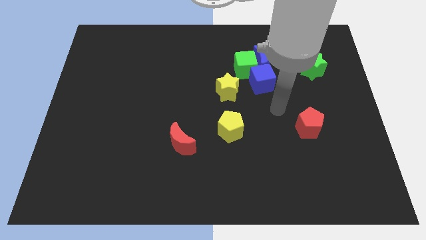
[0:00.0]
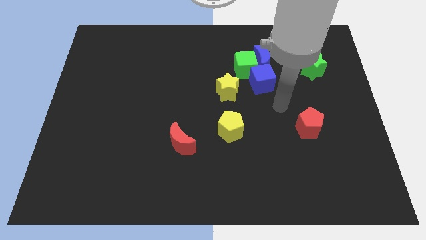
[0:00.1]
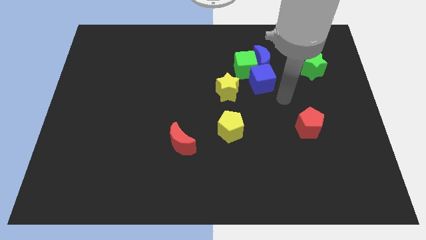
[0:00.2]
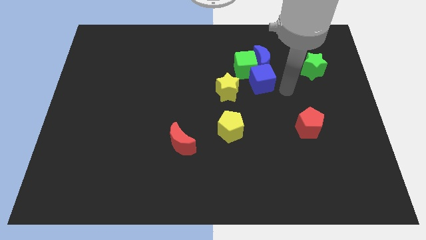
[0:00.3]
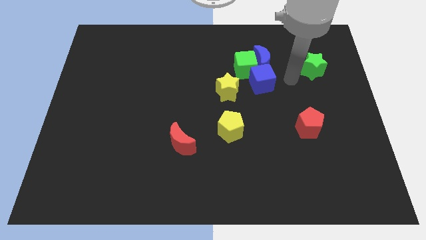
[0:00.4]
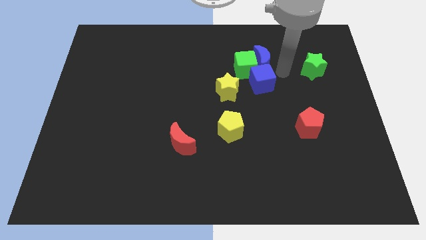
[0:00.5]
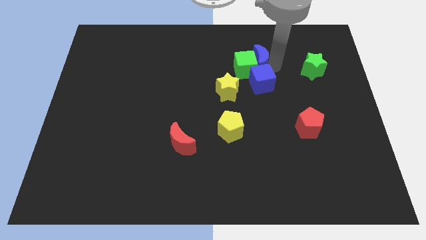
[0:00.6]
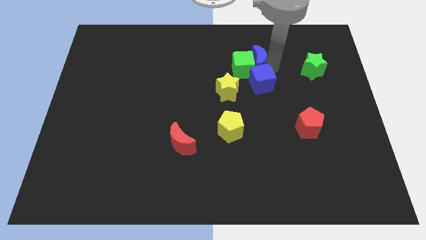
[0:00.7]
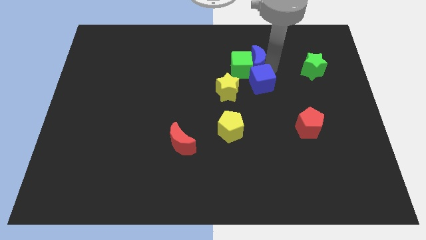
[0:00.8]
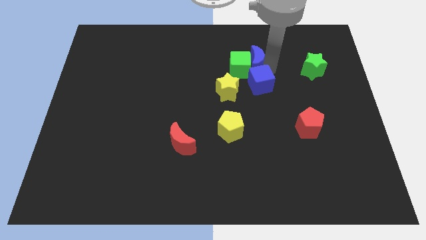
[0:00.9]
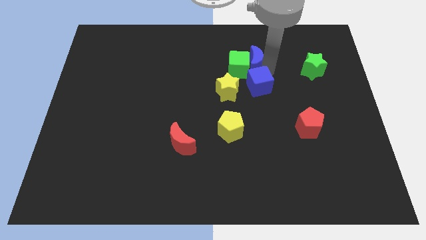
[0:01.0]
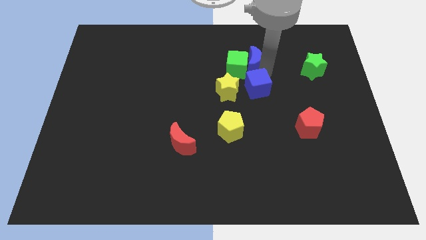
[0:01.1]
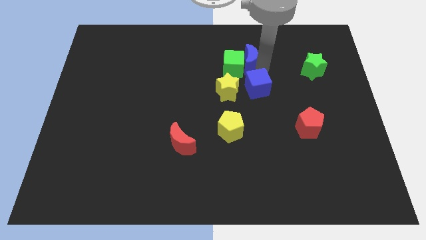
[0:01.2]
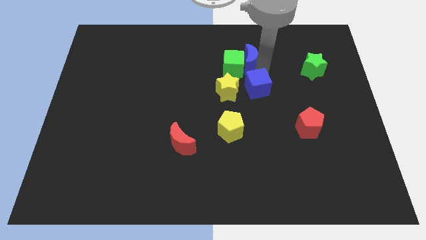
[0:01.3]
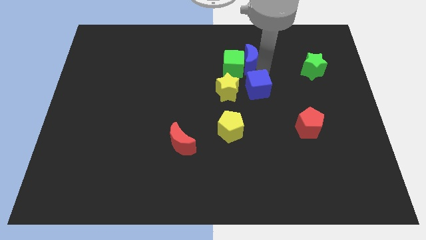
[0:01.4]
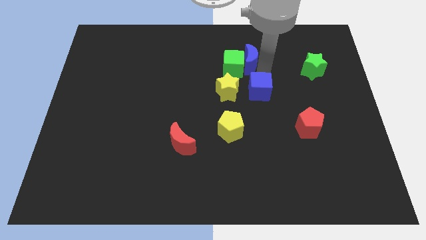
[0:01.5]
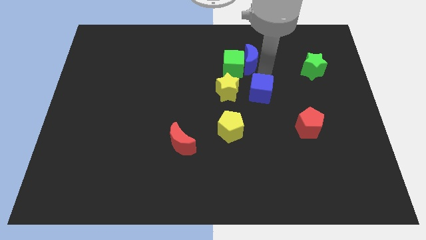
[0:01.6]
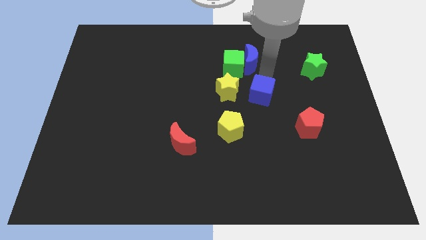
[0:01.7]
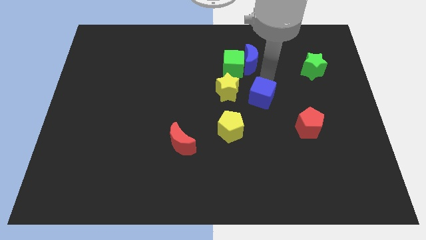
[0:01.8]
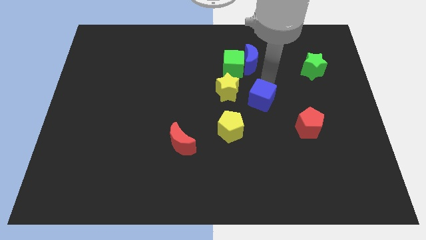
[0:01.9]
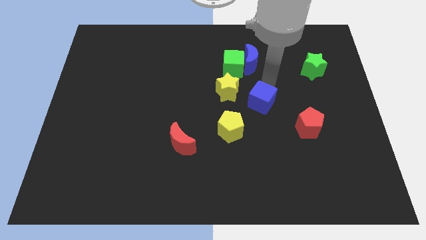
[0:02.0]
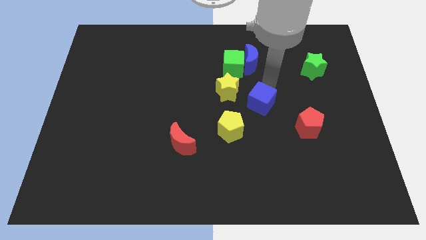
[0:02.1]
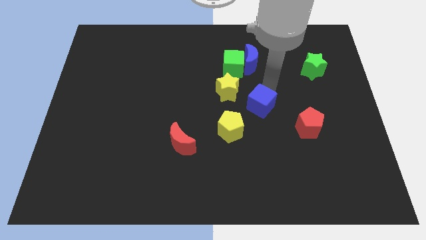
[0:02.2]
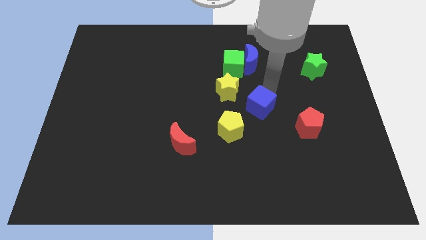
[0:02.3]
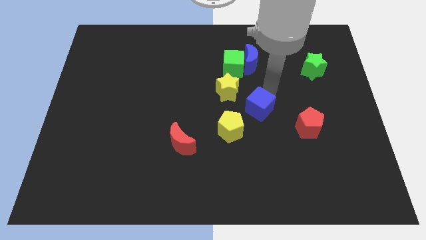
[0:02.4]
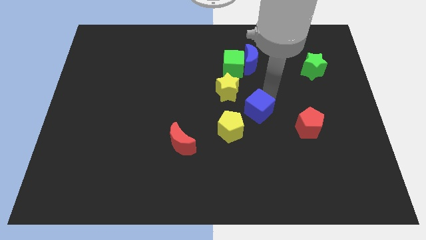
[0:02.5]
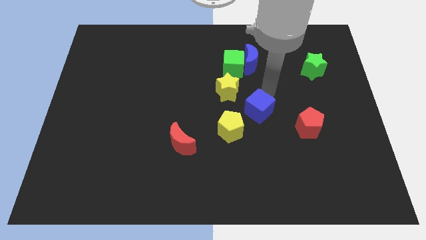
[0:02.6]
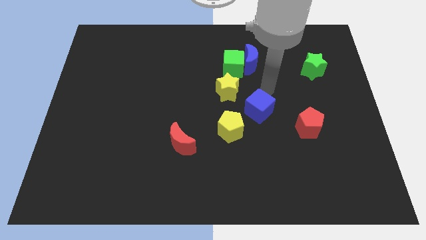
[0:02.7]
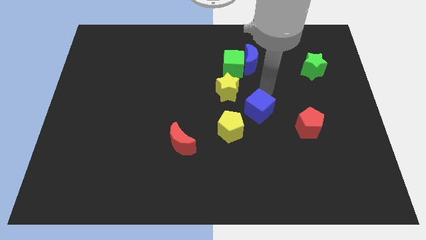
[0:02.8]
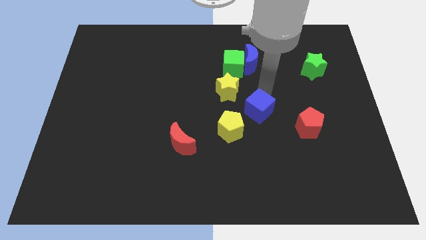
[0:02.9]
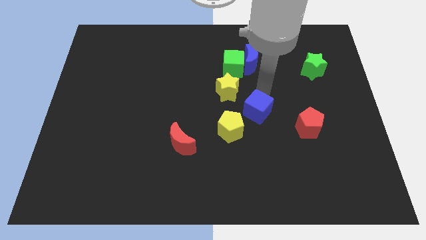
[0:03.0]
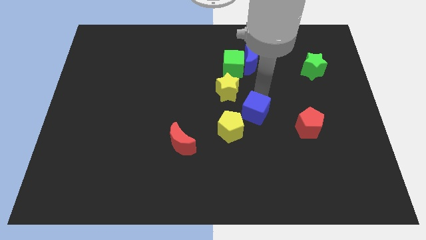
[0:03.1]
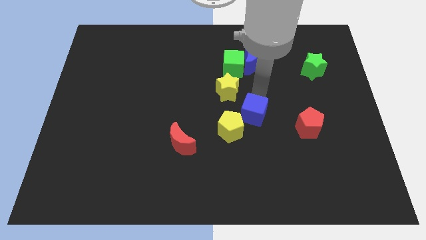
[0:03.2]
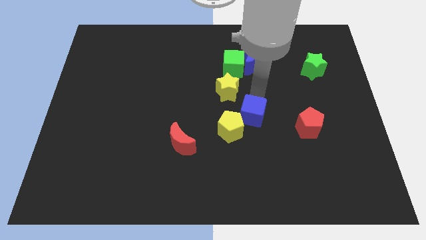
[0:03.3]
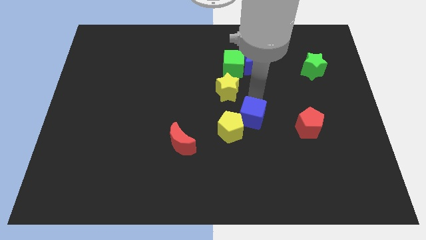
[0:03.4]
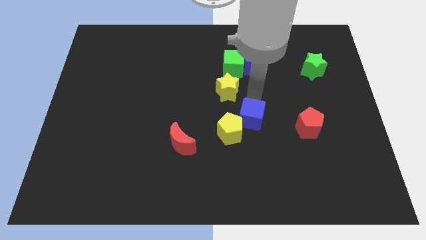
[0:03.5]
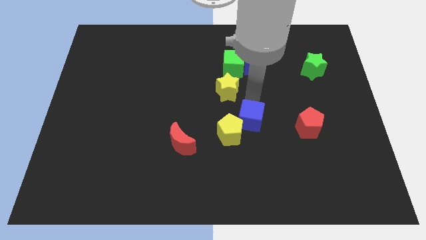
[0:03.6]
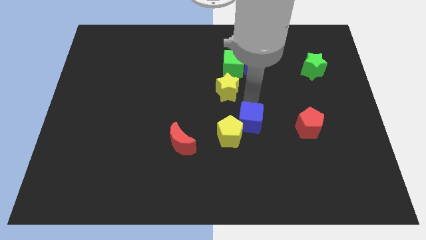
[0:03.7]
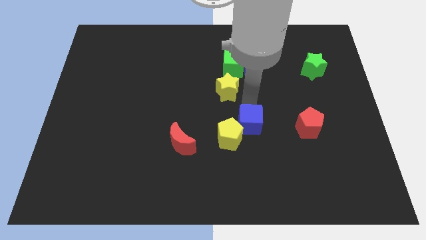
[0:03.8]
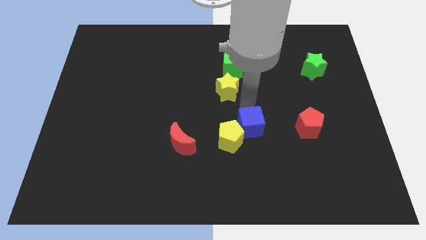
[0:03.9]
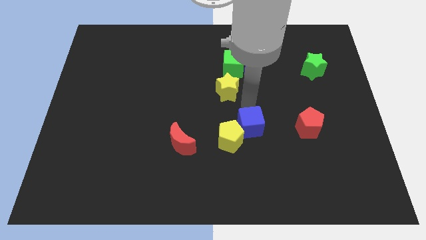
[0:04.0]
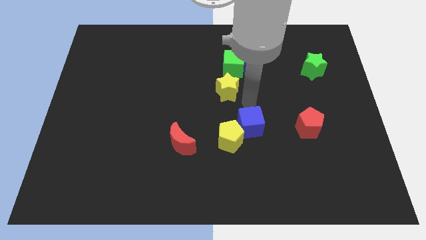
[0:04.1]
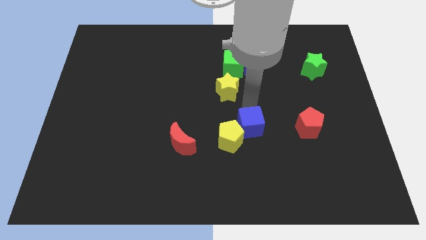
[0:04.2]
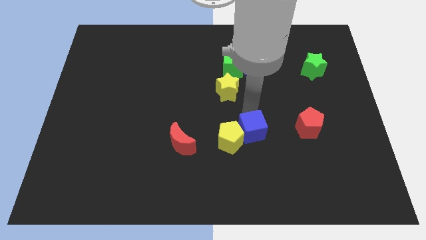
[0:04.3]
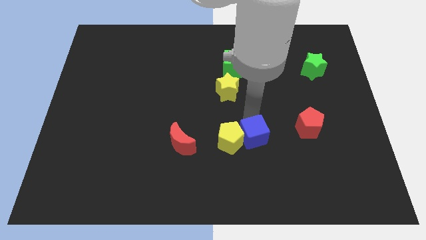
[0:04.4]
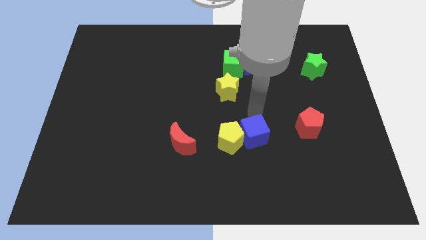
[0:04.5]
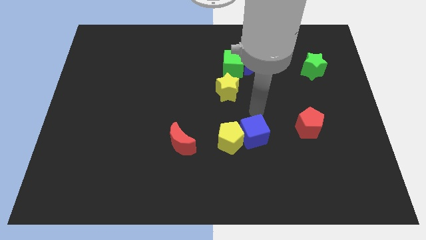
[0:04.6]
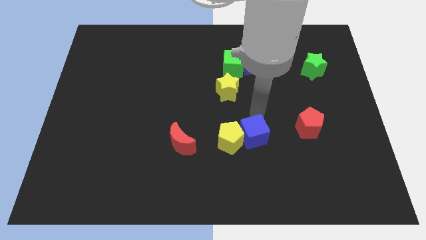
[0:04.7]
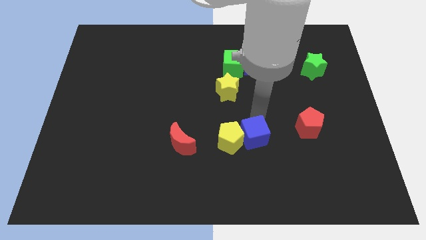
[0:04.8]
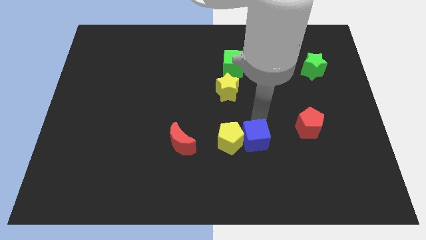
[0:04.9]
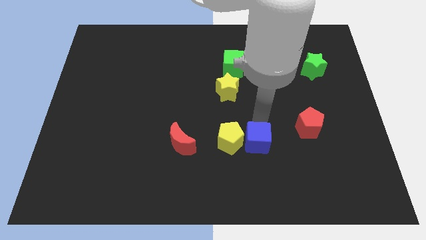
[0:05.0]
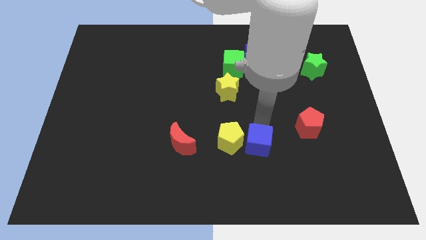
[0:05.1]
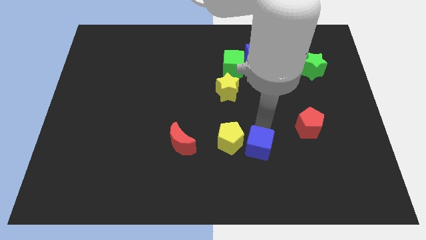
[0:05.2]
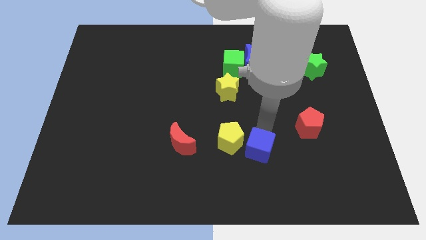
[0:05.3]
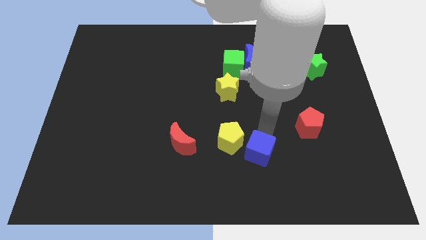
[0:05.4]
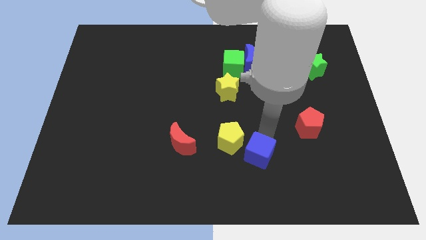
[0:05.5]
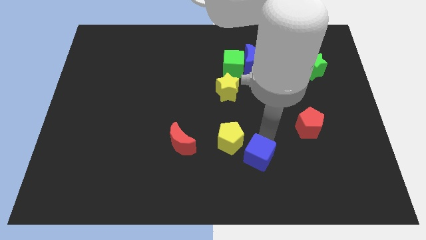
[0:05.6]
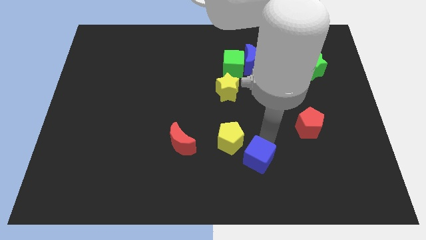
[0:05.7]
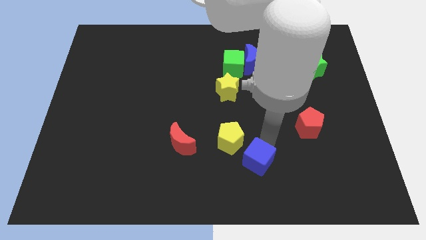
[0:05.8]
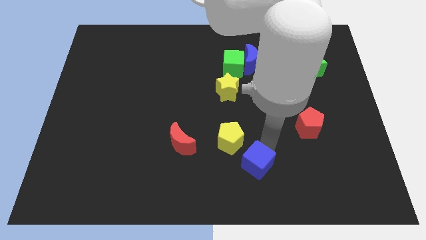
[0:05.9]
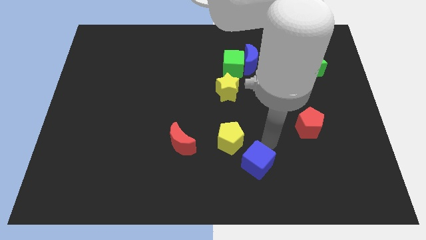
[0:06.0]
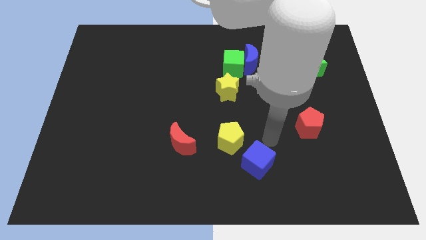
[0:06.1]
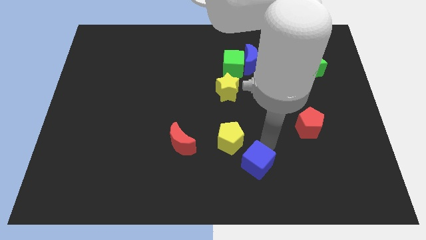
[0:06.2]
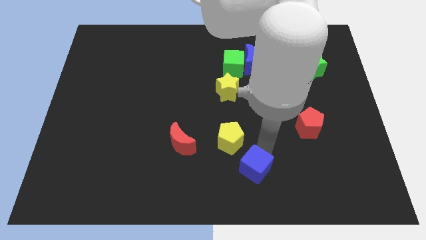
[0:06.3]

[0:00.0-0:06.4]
push the blue cube to the bottom side
